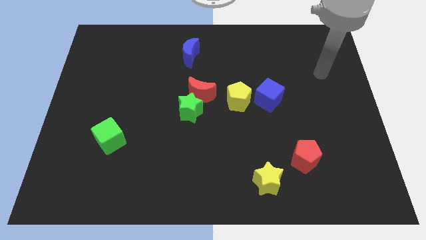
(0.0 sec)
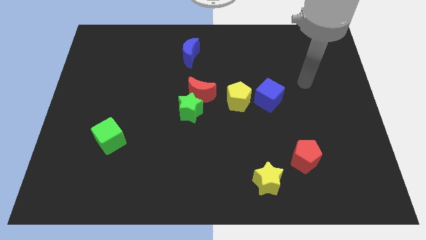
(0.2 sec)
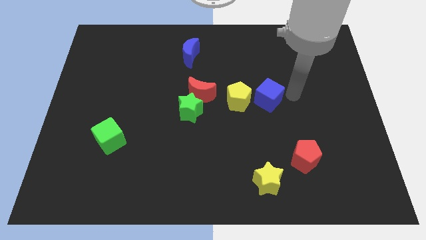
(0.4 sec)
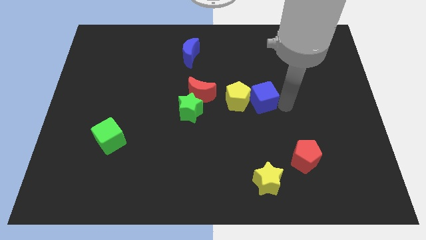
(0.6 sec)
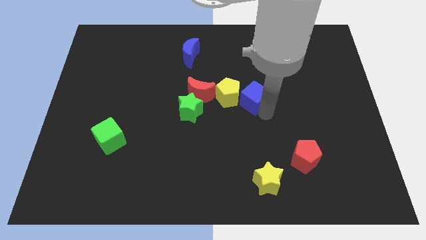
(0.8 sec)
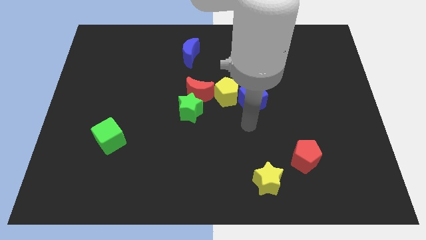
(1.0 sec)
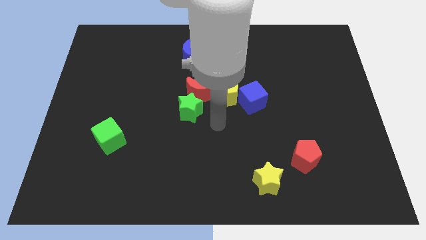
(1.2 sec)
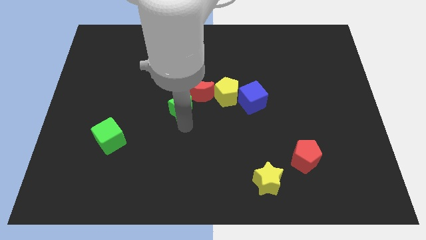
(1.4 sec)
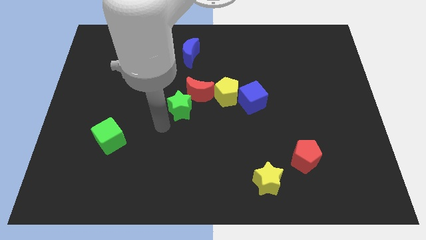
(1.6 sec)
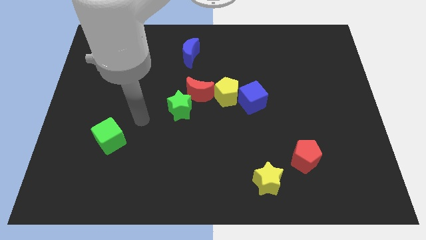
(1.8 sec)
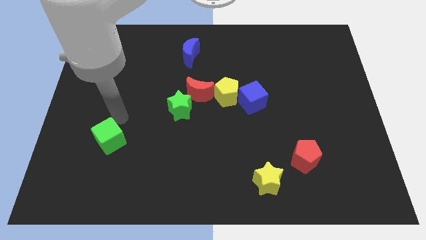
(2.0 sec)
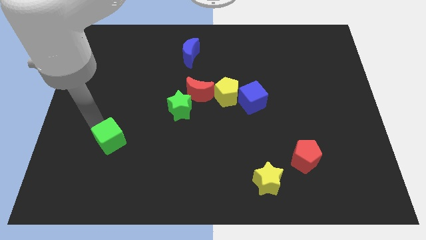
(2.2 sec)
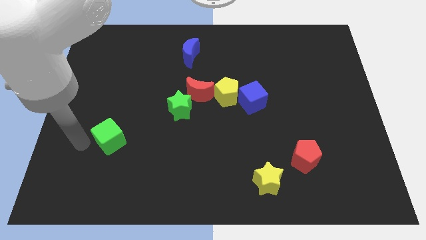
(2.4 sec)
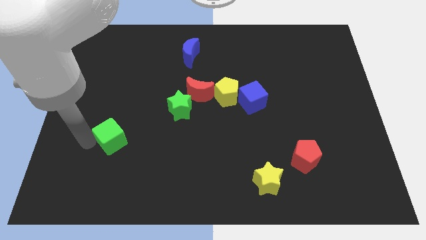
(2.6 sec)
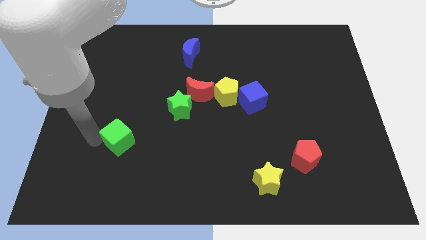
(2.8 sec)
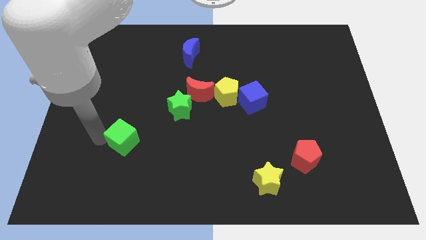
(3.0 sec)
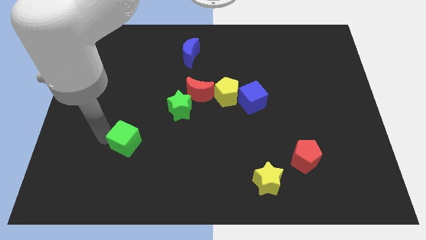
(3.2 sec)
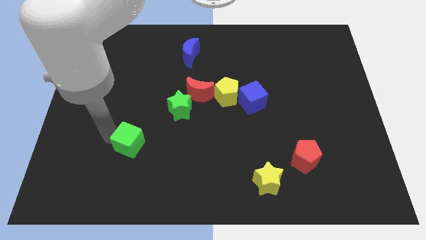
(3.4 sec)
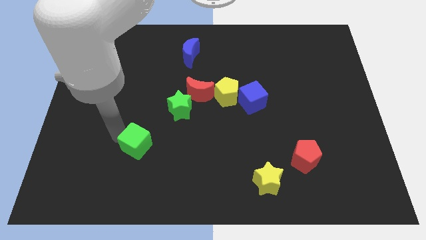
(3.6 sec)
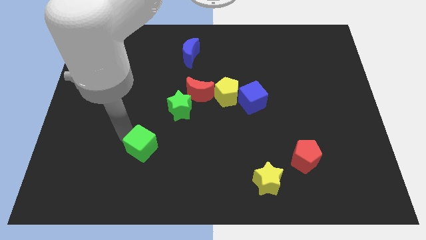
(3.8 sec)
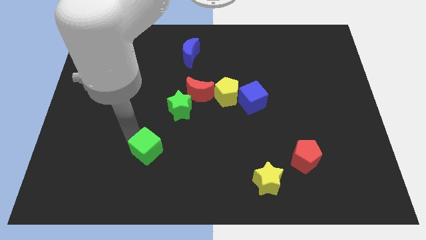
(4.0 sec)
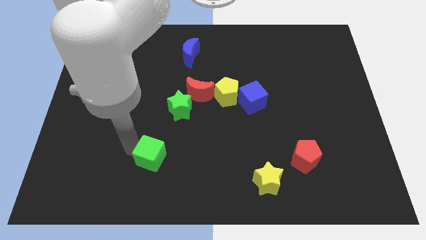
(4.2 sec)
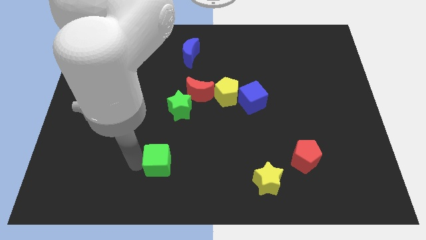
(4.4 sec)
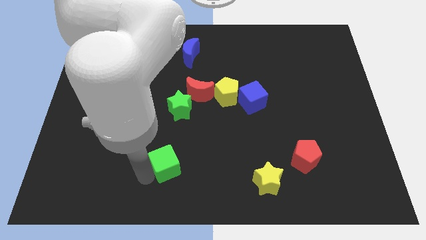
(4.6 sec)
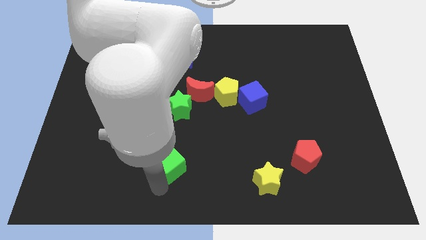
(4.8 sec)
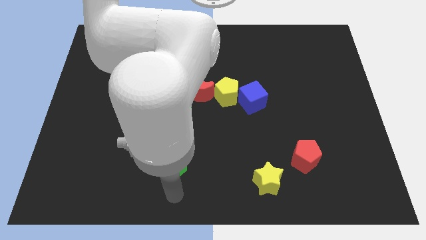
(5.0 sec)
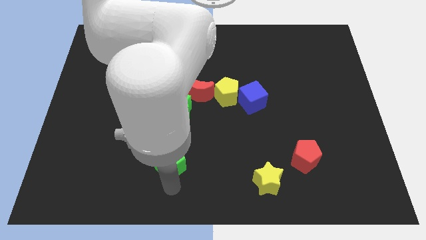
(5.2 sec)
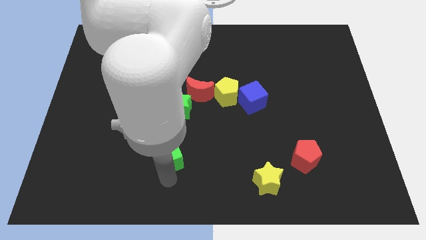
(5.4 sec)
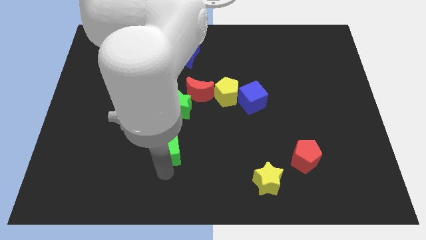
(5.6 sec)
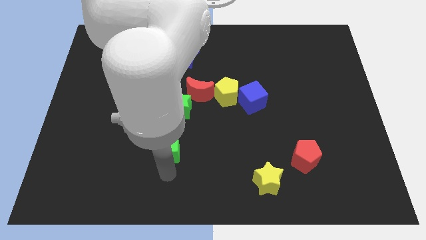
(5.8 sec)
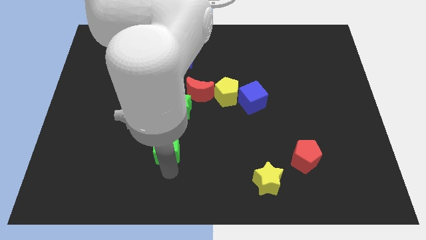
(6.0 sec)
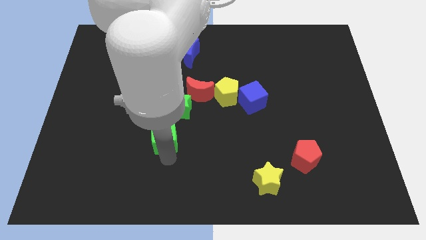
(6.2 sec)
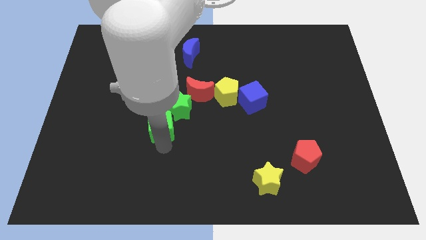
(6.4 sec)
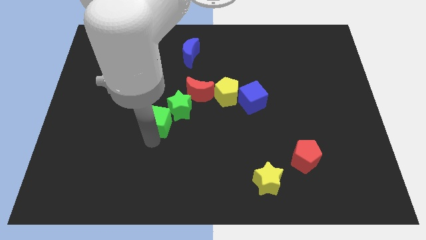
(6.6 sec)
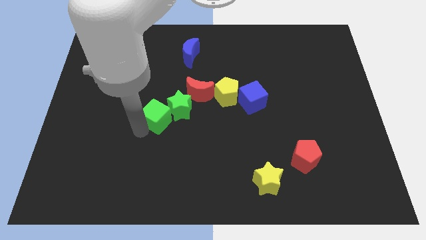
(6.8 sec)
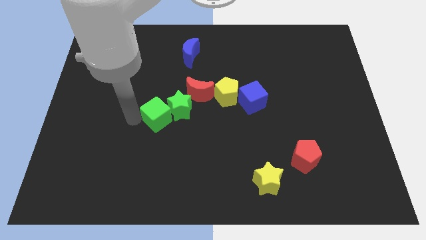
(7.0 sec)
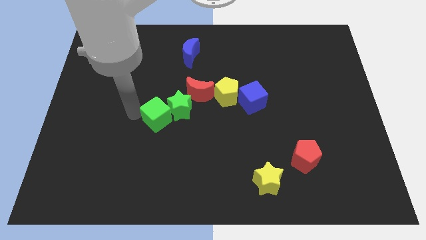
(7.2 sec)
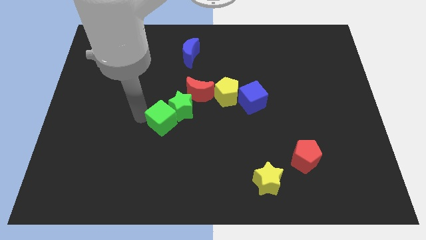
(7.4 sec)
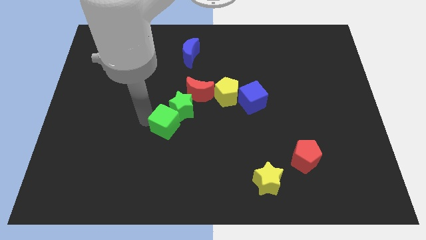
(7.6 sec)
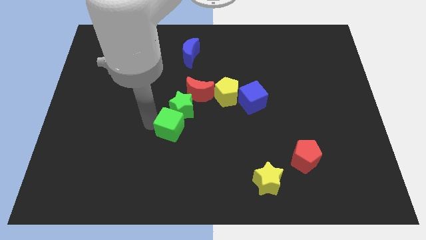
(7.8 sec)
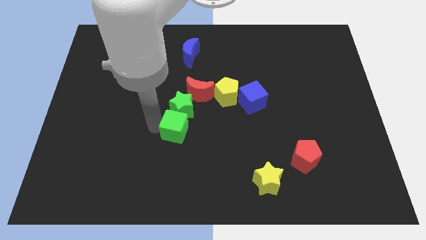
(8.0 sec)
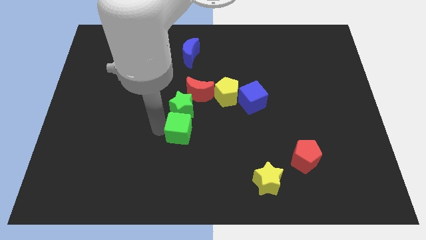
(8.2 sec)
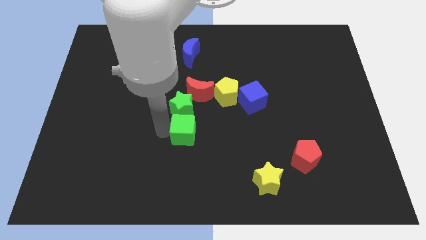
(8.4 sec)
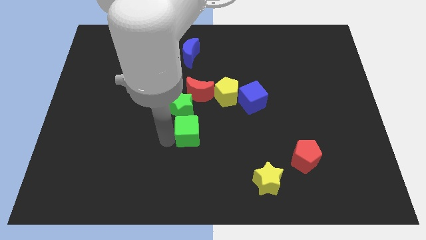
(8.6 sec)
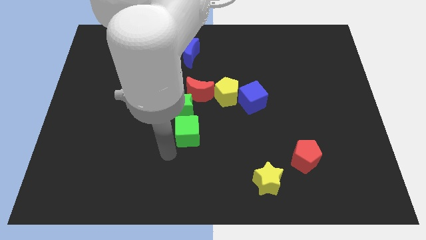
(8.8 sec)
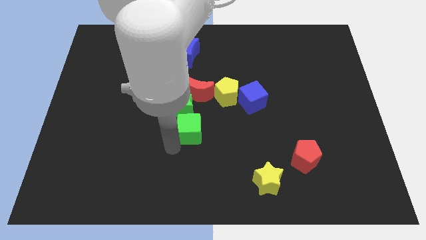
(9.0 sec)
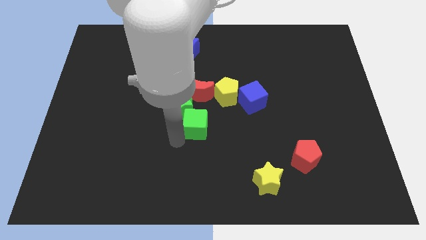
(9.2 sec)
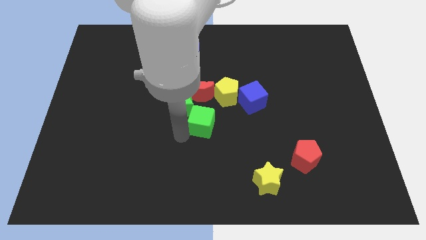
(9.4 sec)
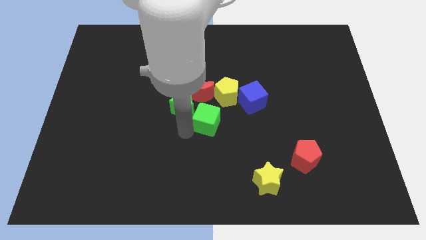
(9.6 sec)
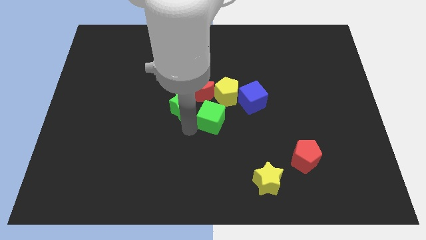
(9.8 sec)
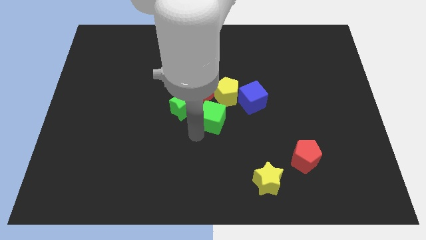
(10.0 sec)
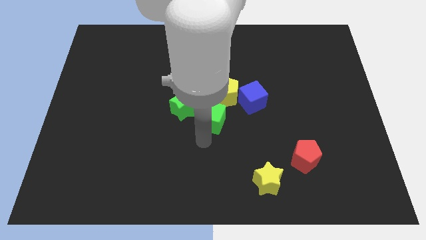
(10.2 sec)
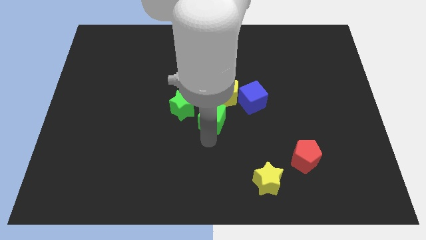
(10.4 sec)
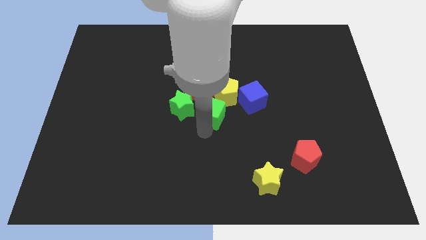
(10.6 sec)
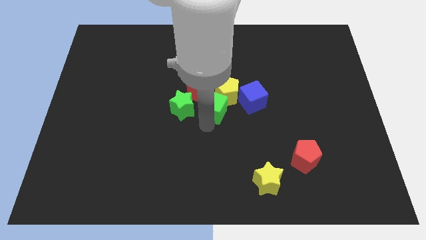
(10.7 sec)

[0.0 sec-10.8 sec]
push the green cube towards the yellow pentagon

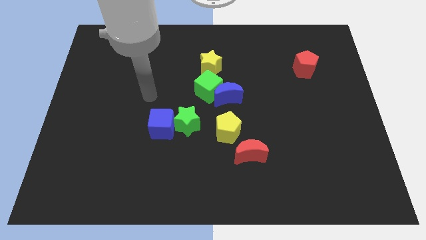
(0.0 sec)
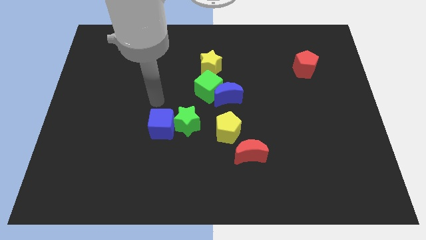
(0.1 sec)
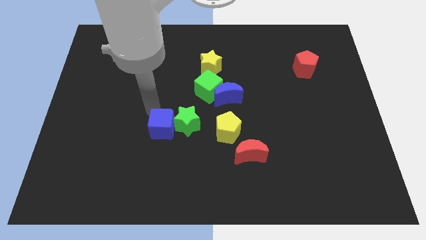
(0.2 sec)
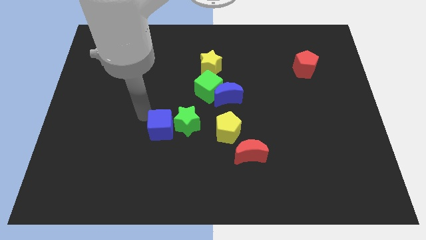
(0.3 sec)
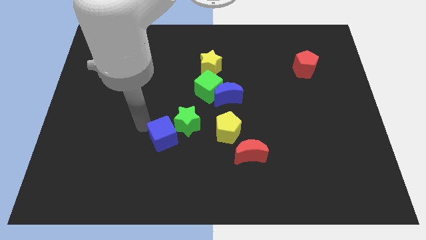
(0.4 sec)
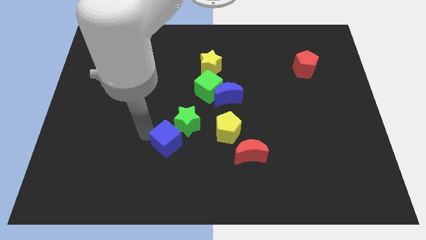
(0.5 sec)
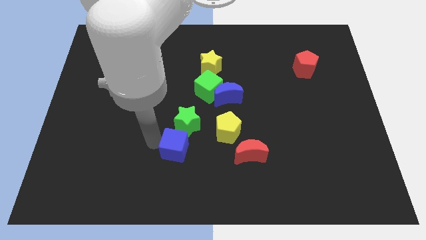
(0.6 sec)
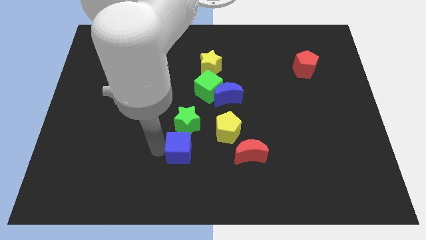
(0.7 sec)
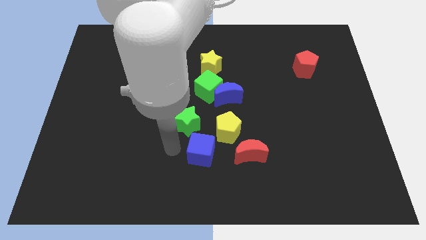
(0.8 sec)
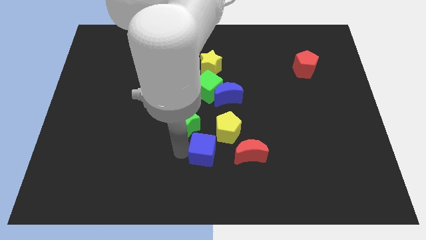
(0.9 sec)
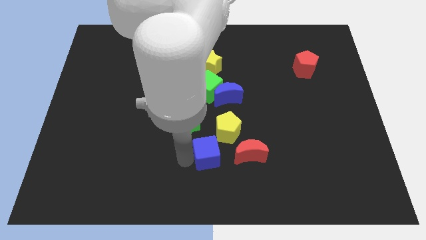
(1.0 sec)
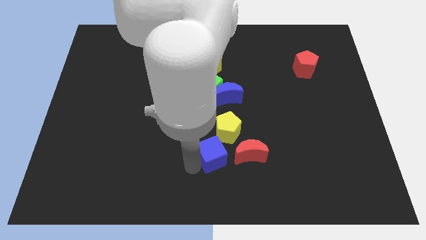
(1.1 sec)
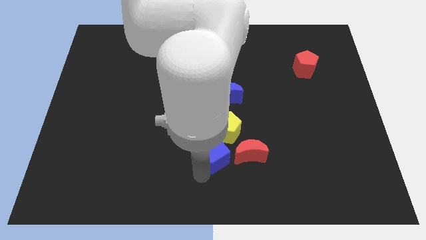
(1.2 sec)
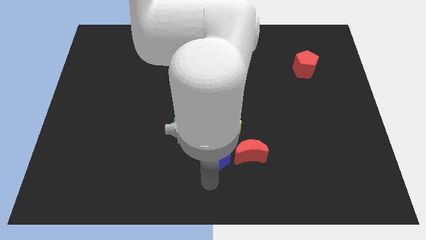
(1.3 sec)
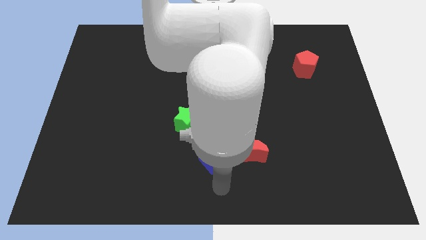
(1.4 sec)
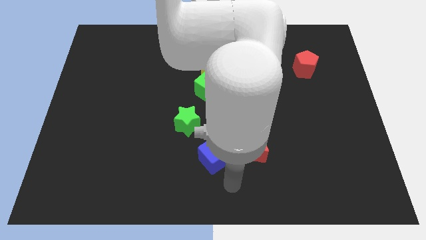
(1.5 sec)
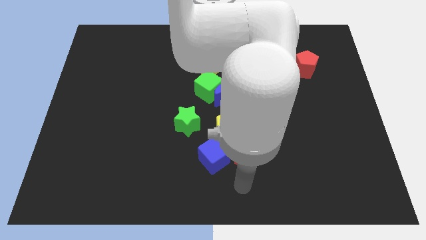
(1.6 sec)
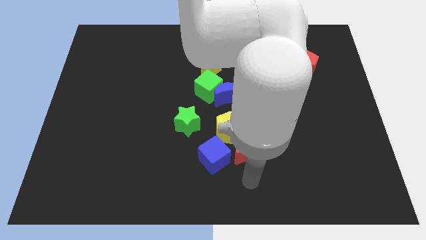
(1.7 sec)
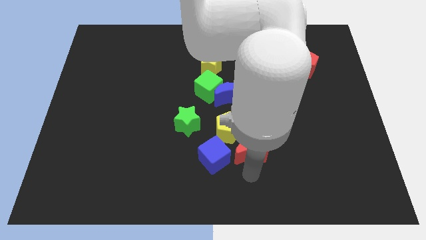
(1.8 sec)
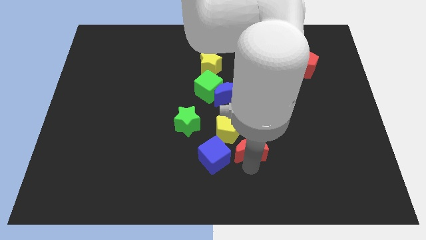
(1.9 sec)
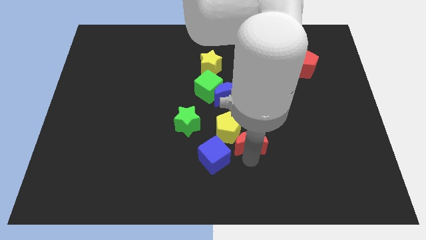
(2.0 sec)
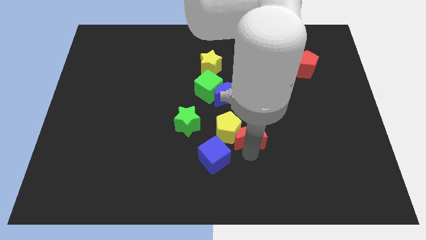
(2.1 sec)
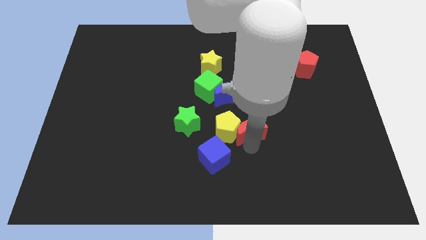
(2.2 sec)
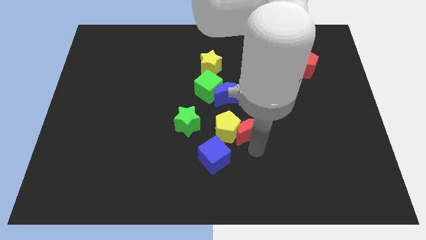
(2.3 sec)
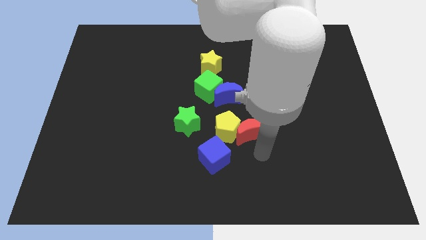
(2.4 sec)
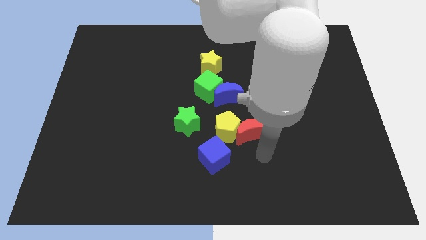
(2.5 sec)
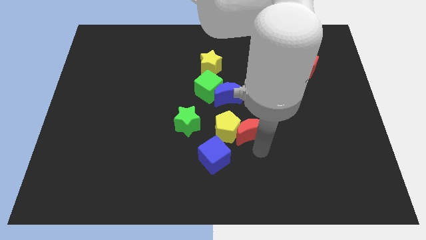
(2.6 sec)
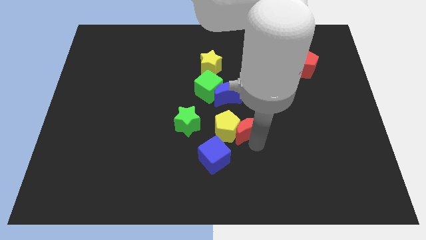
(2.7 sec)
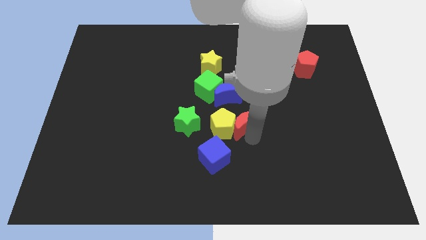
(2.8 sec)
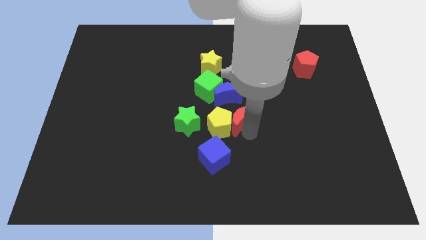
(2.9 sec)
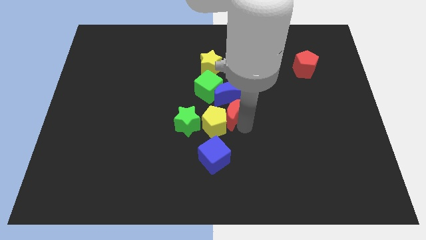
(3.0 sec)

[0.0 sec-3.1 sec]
move the red moon close to the blue moon
